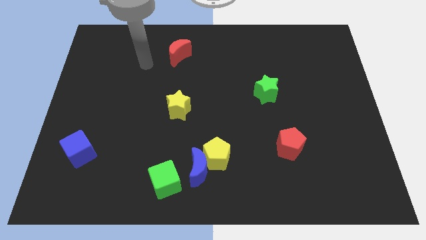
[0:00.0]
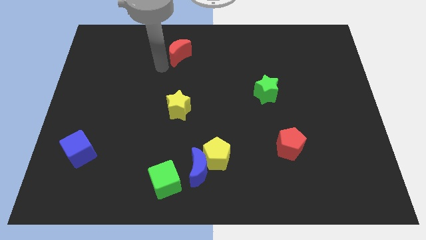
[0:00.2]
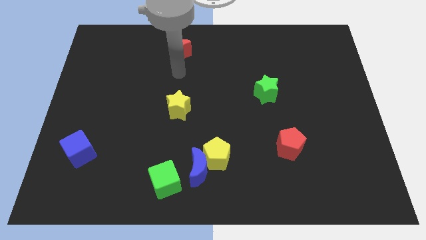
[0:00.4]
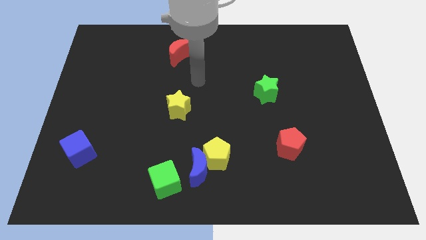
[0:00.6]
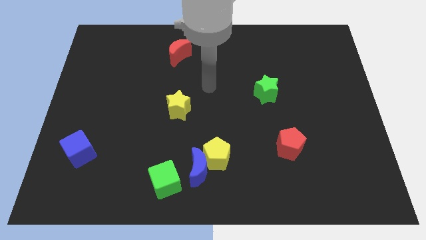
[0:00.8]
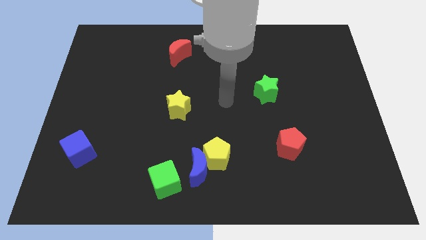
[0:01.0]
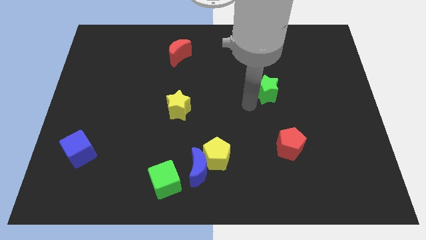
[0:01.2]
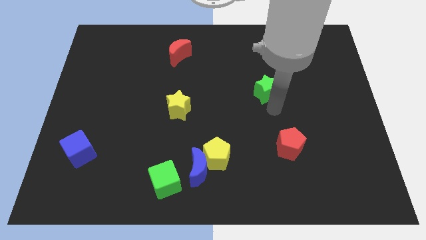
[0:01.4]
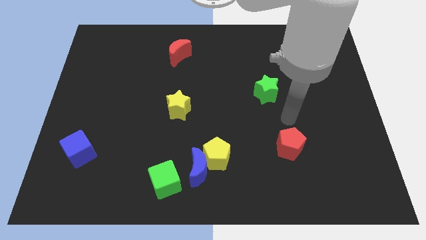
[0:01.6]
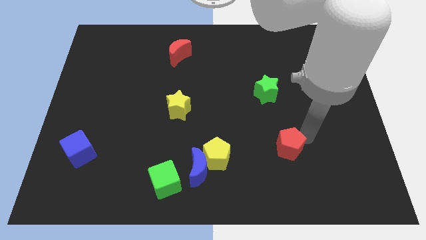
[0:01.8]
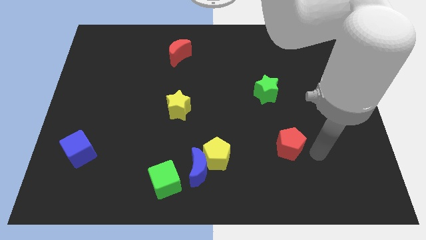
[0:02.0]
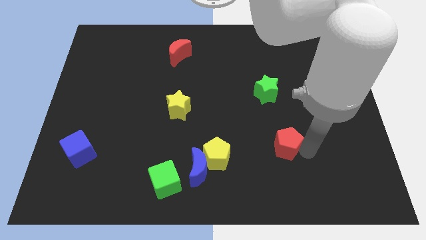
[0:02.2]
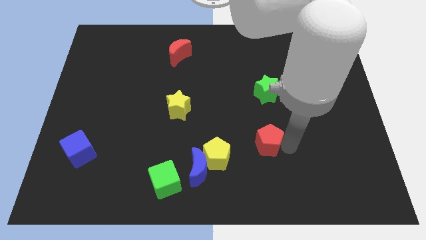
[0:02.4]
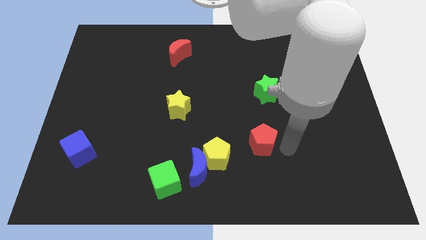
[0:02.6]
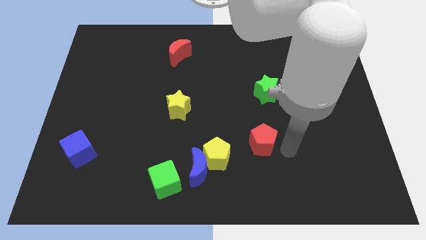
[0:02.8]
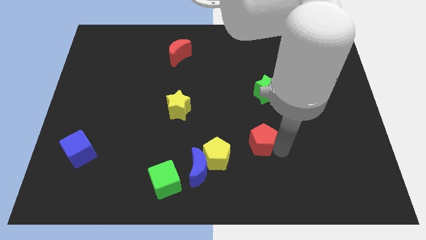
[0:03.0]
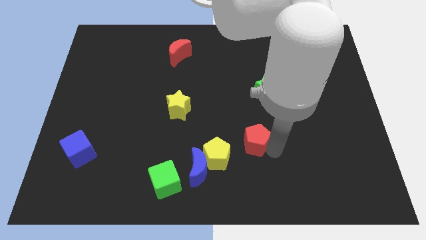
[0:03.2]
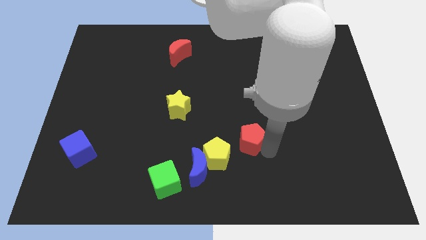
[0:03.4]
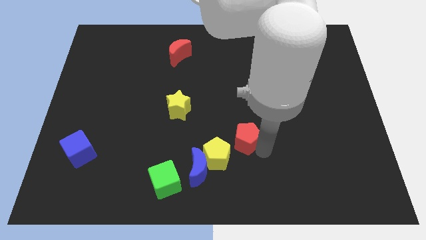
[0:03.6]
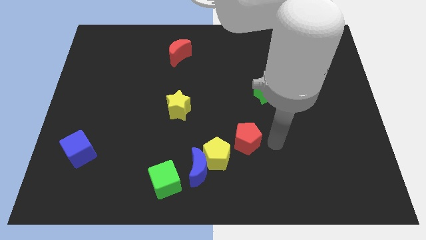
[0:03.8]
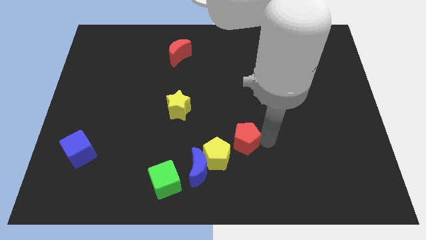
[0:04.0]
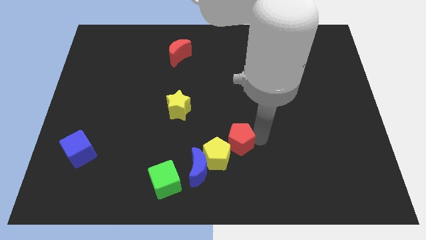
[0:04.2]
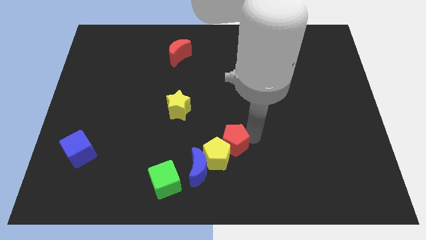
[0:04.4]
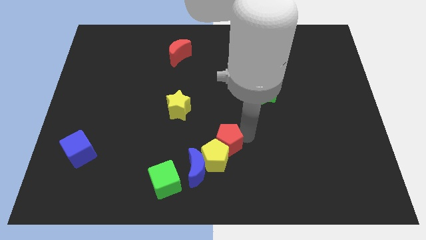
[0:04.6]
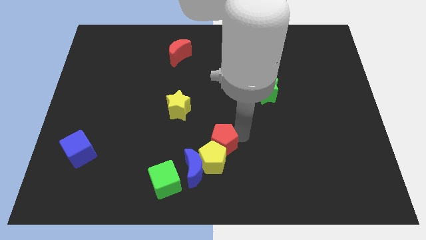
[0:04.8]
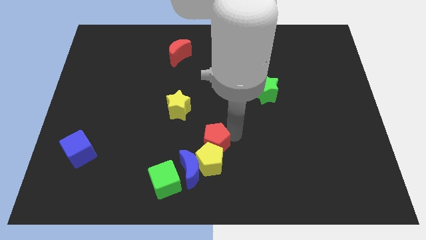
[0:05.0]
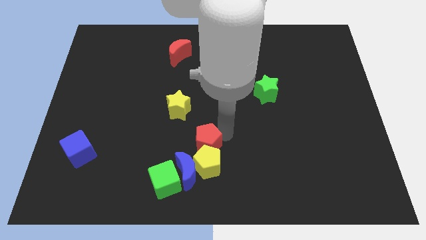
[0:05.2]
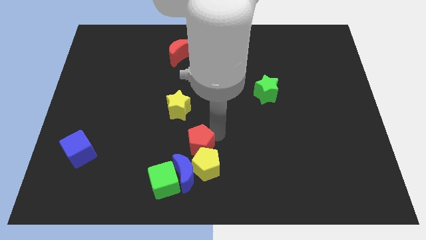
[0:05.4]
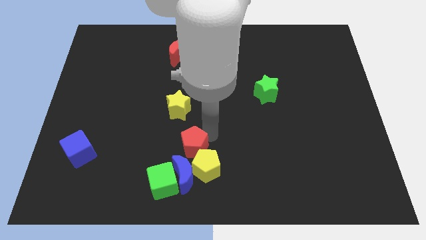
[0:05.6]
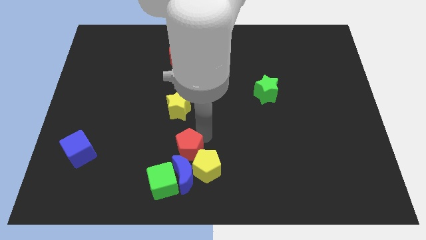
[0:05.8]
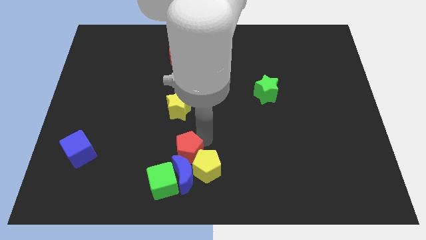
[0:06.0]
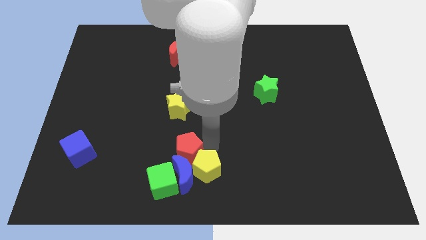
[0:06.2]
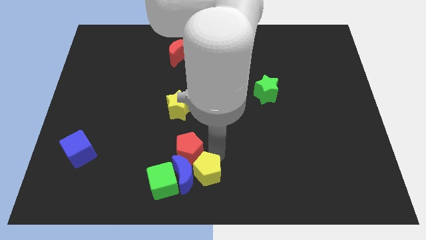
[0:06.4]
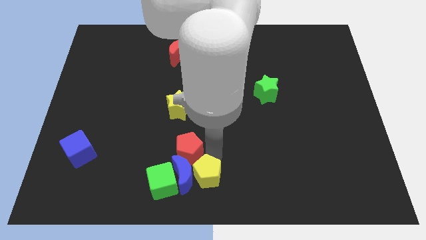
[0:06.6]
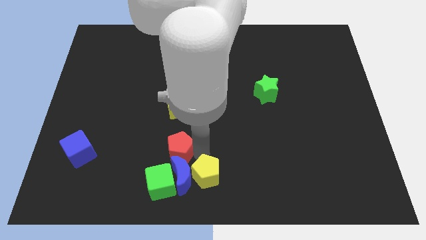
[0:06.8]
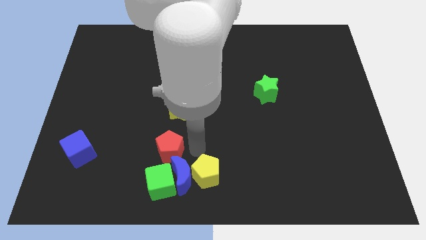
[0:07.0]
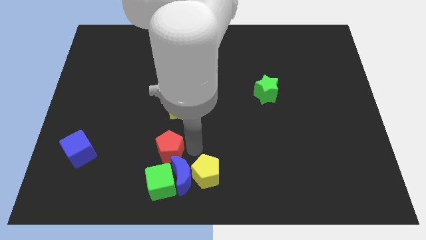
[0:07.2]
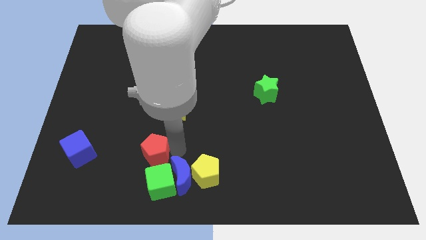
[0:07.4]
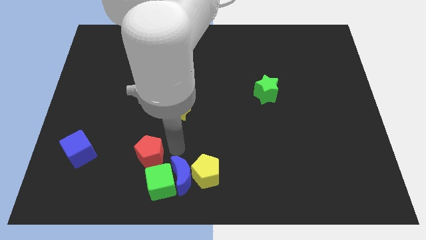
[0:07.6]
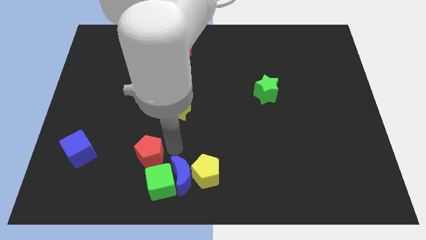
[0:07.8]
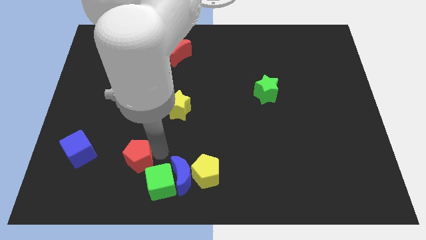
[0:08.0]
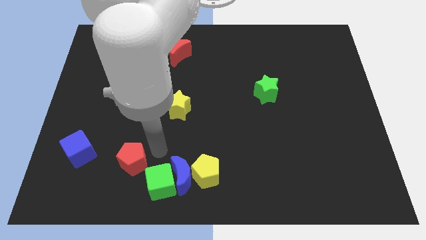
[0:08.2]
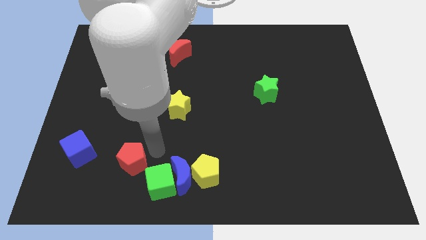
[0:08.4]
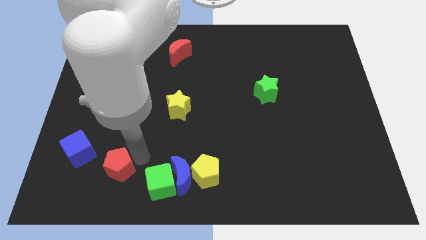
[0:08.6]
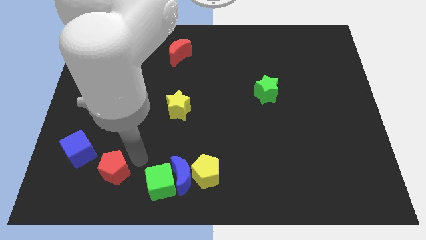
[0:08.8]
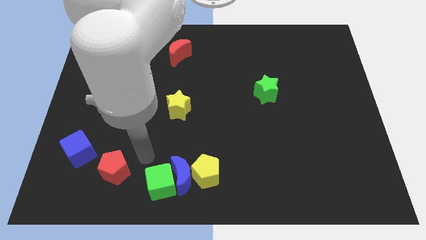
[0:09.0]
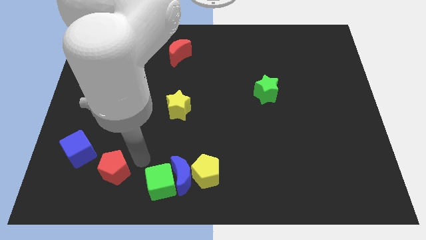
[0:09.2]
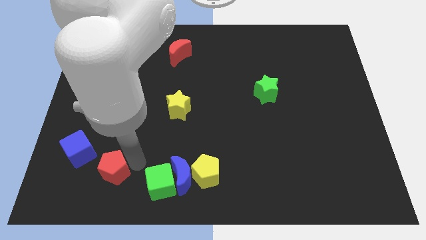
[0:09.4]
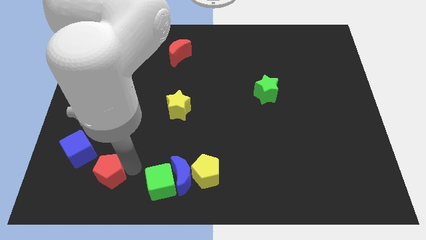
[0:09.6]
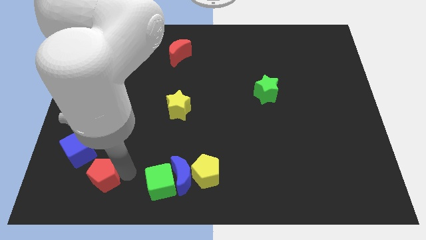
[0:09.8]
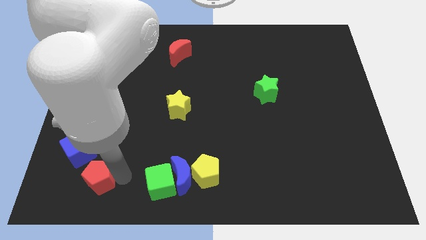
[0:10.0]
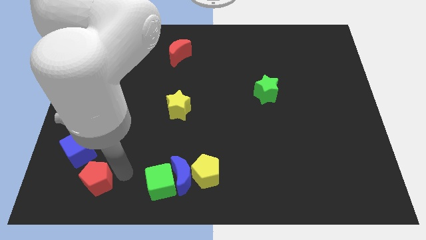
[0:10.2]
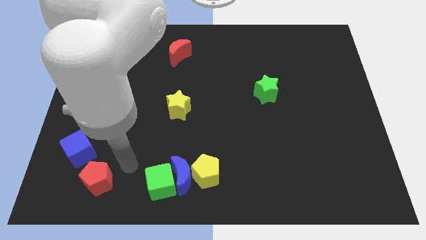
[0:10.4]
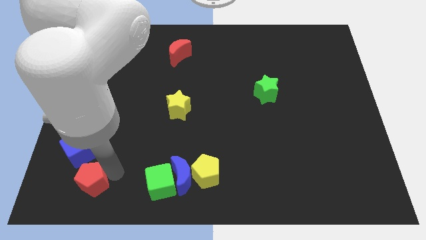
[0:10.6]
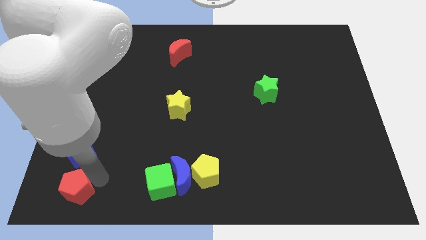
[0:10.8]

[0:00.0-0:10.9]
put the red pentagon to the bottom left of the board

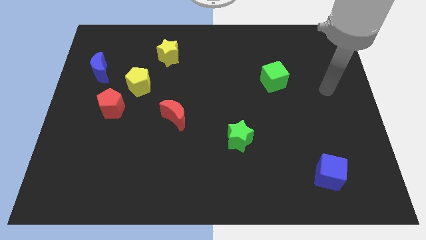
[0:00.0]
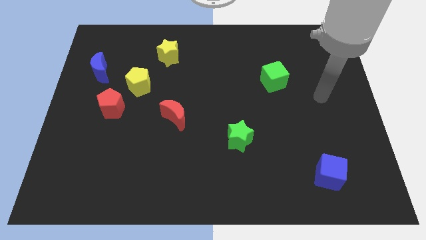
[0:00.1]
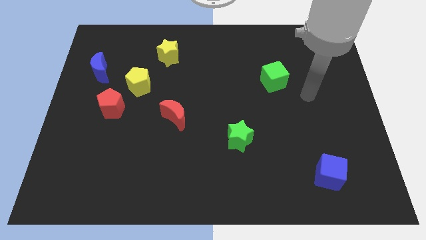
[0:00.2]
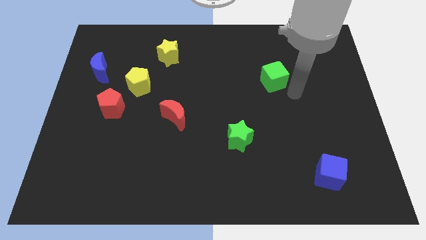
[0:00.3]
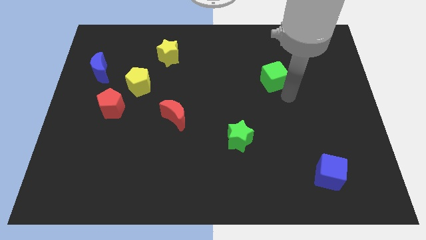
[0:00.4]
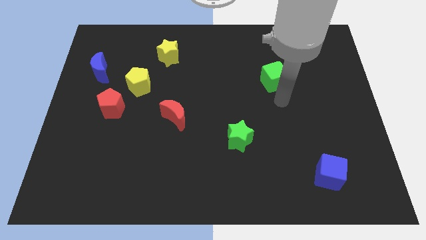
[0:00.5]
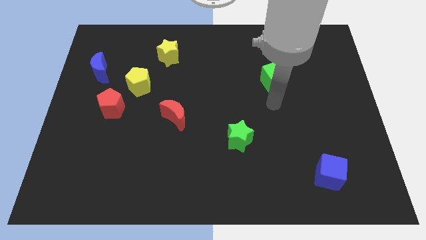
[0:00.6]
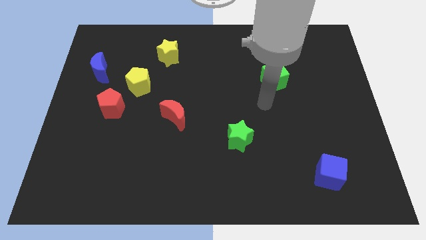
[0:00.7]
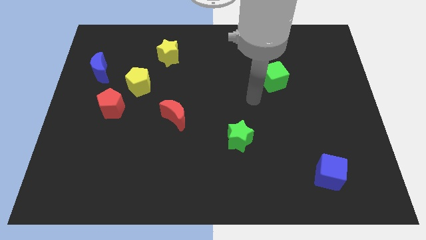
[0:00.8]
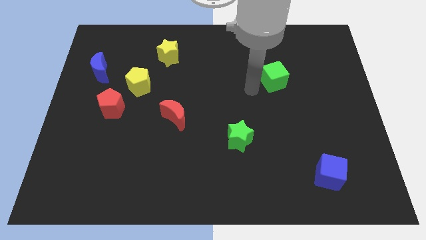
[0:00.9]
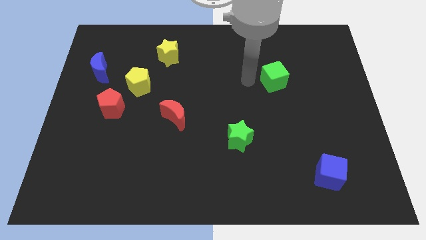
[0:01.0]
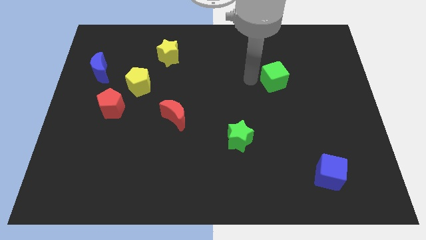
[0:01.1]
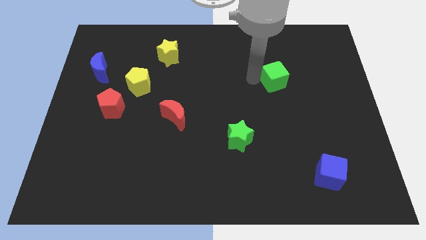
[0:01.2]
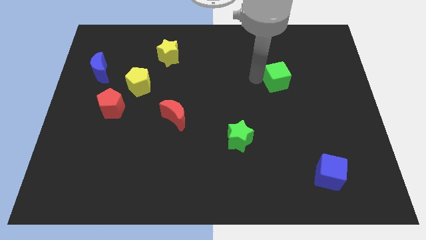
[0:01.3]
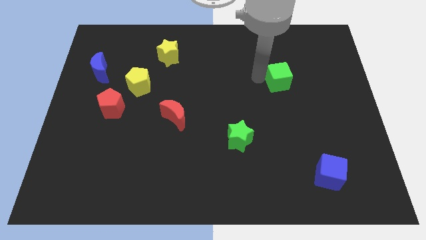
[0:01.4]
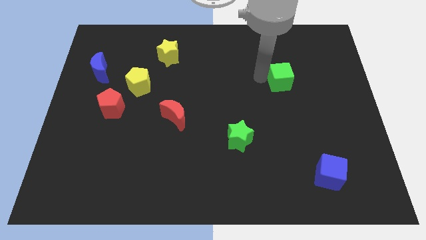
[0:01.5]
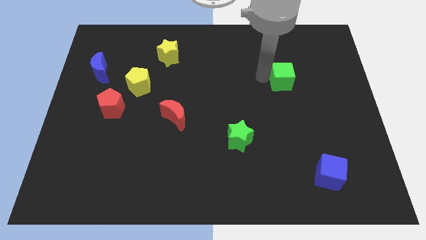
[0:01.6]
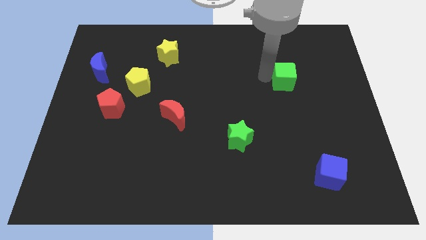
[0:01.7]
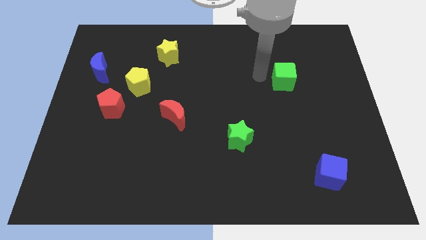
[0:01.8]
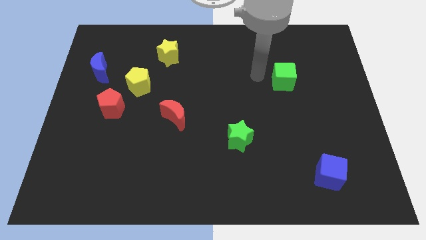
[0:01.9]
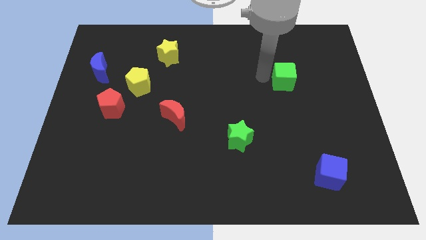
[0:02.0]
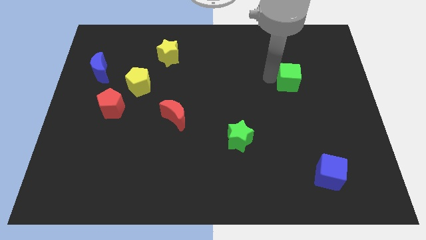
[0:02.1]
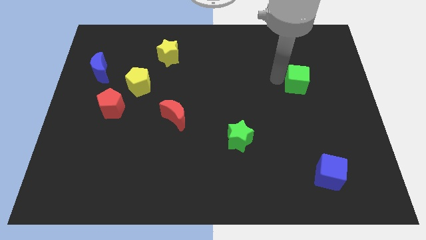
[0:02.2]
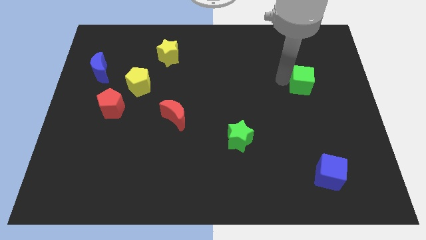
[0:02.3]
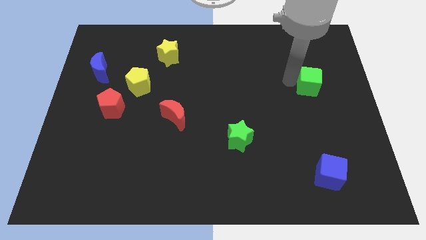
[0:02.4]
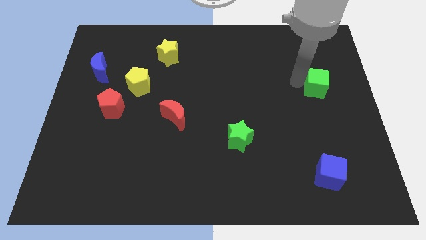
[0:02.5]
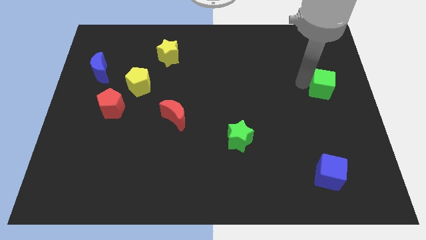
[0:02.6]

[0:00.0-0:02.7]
slide the green cube to the right side of the board
